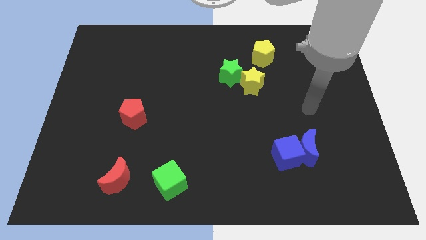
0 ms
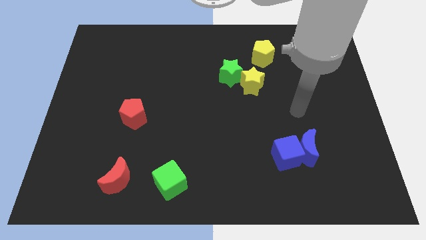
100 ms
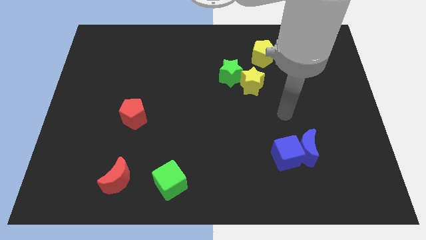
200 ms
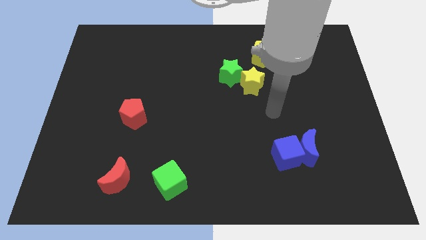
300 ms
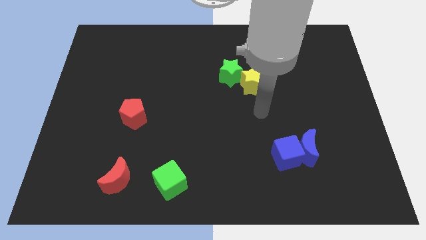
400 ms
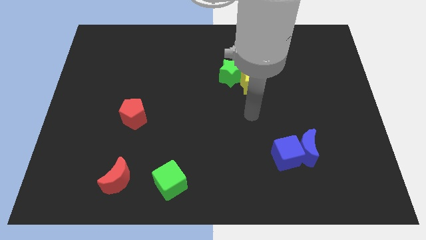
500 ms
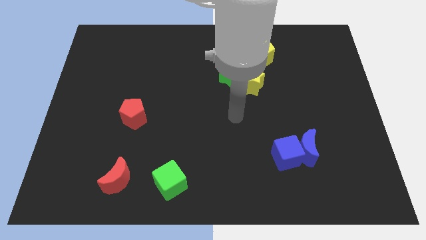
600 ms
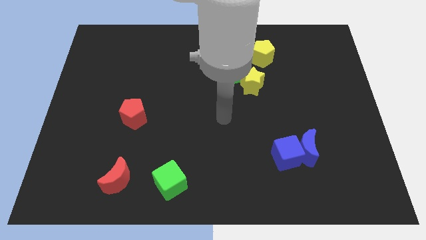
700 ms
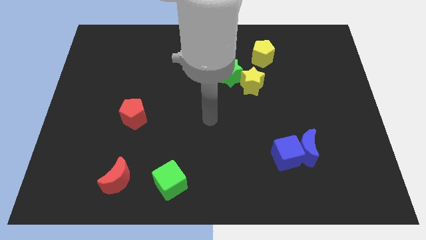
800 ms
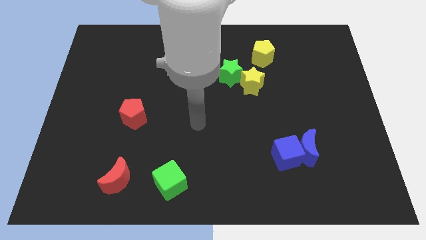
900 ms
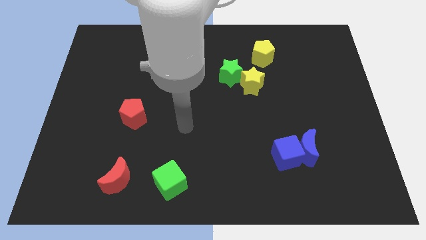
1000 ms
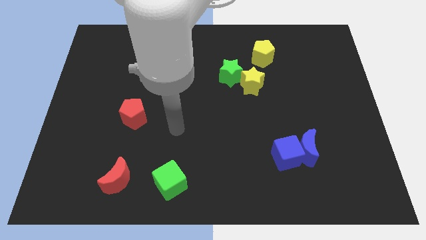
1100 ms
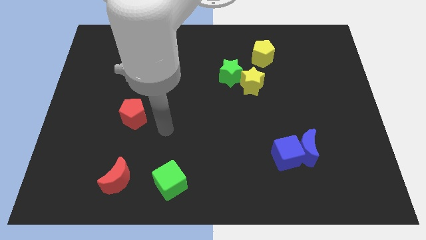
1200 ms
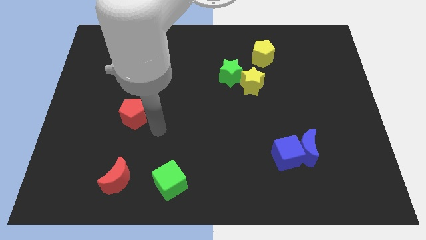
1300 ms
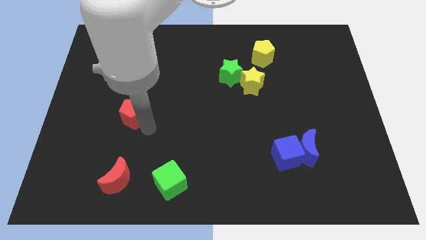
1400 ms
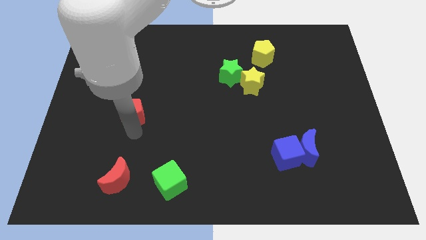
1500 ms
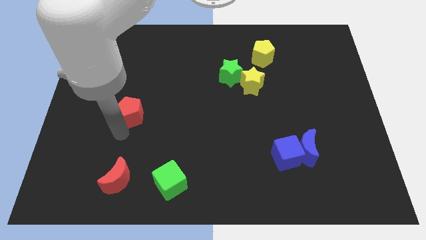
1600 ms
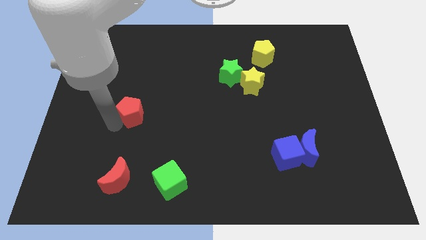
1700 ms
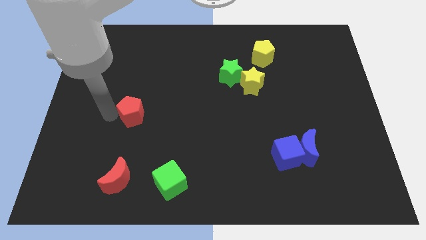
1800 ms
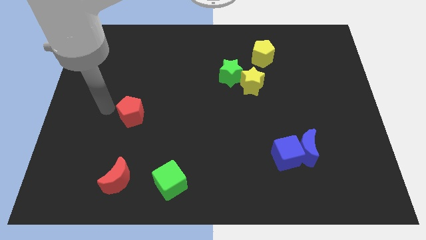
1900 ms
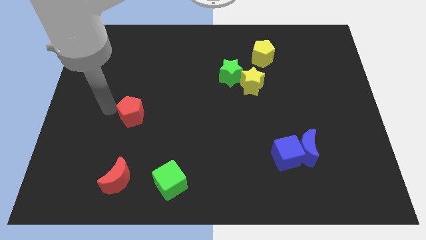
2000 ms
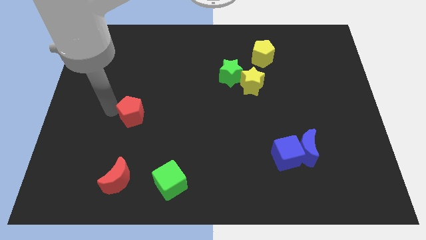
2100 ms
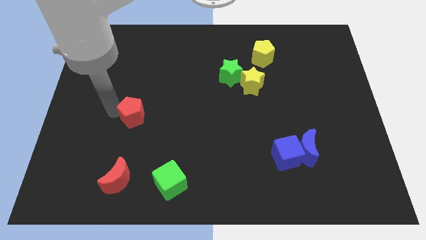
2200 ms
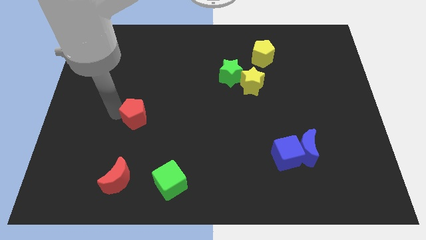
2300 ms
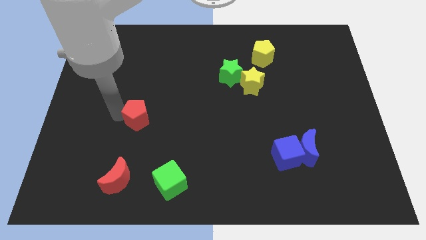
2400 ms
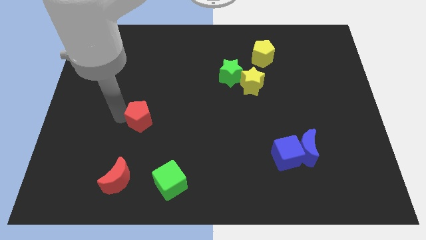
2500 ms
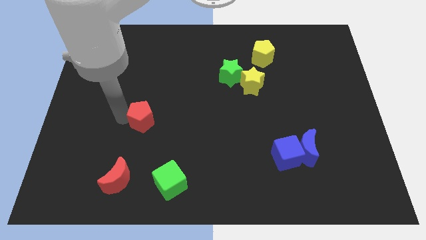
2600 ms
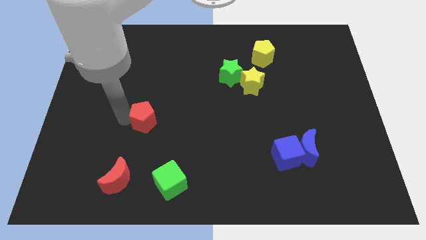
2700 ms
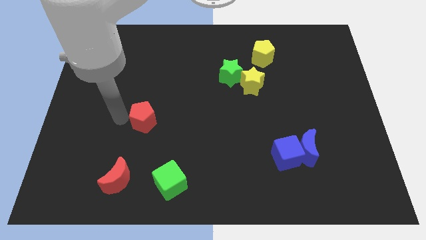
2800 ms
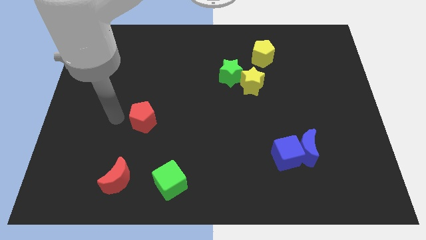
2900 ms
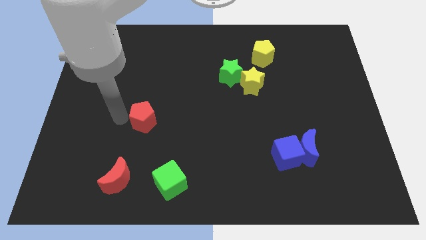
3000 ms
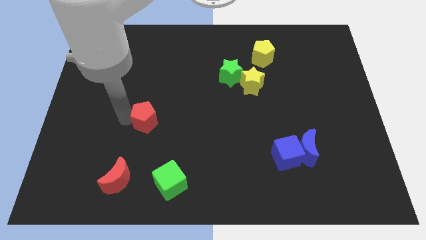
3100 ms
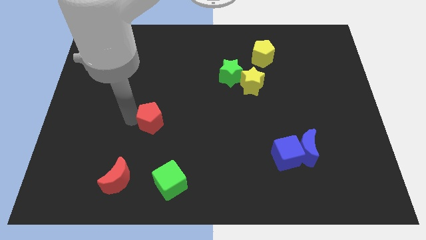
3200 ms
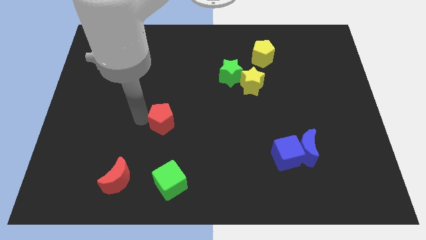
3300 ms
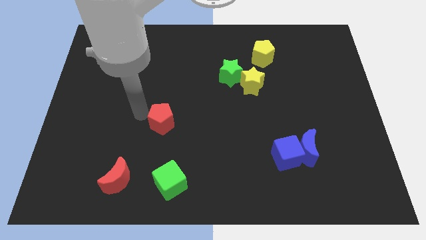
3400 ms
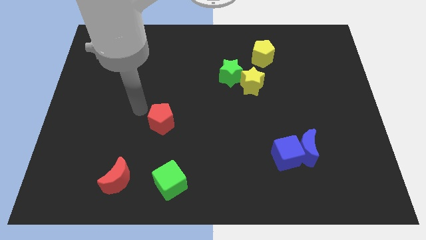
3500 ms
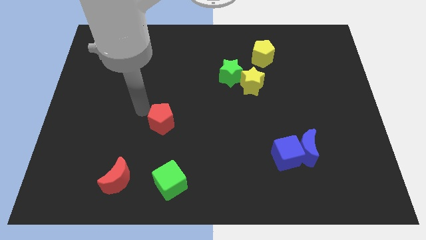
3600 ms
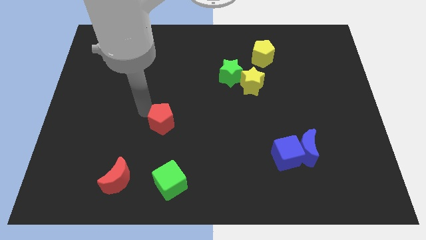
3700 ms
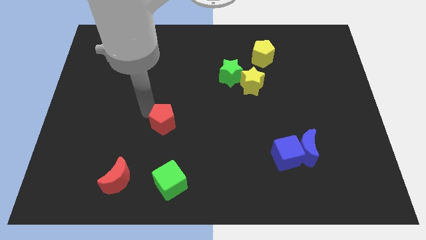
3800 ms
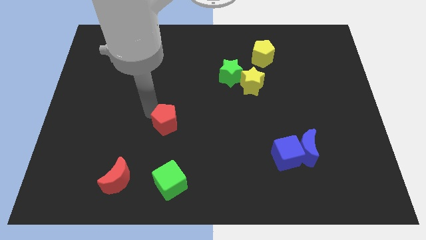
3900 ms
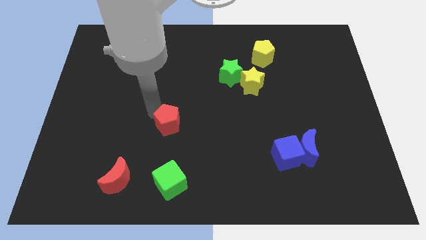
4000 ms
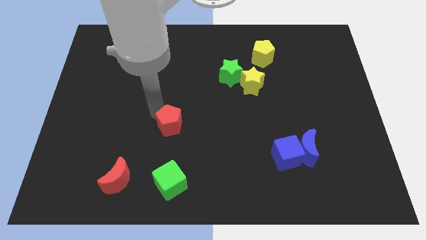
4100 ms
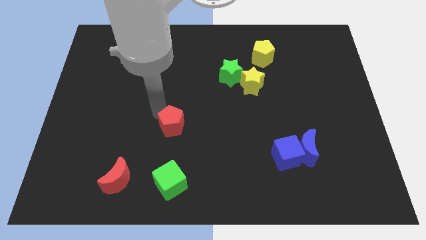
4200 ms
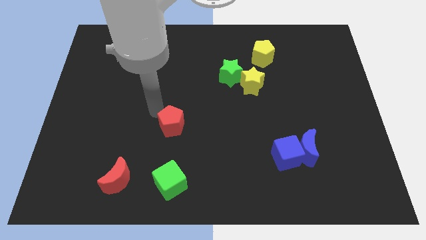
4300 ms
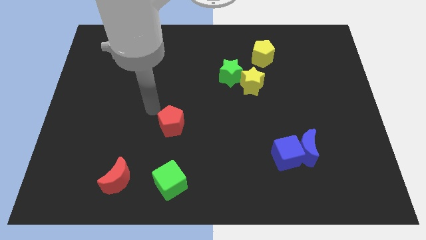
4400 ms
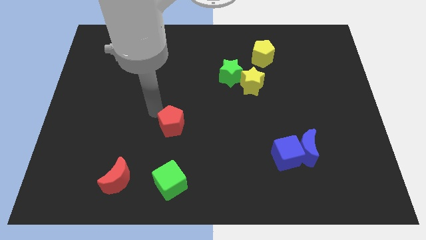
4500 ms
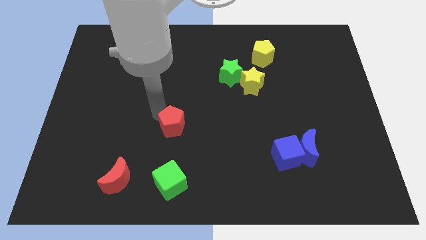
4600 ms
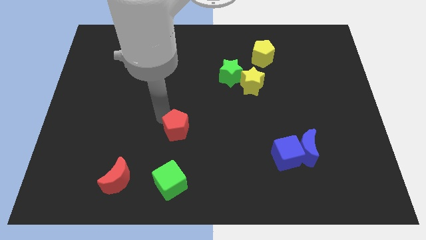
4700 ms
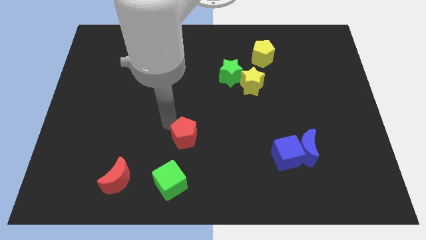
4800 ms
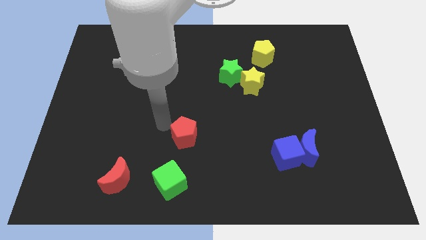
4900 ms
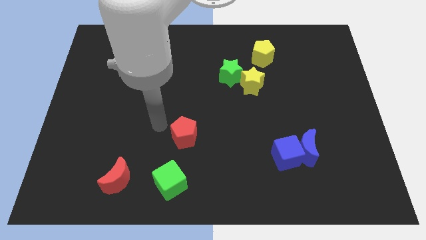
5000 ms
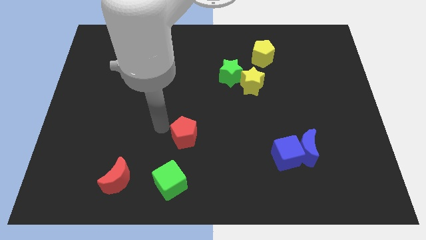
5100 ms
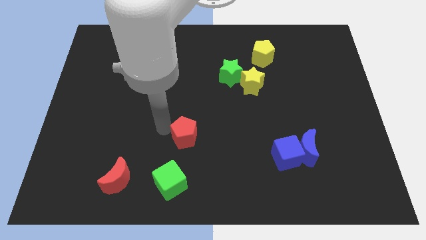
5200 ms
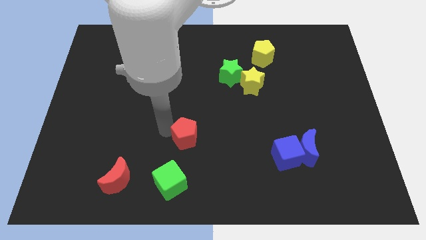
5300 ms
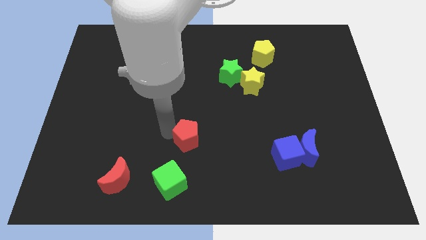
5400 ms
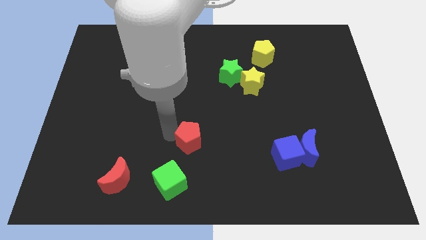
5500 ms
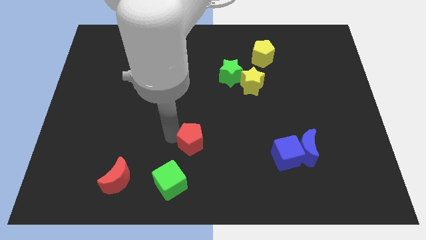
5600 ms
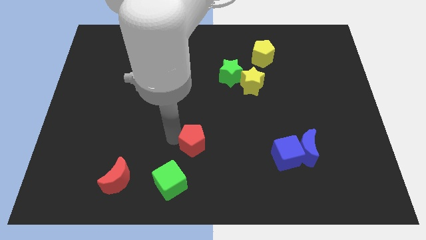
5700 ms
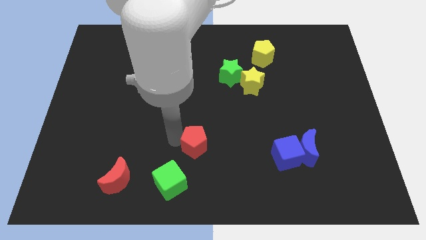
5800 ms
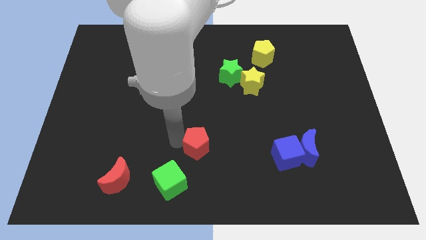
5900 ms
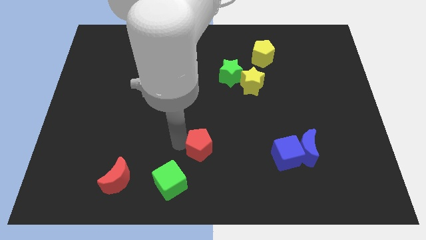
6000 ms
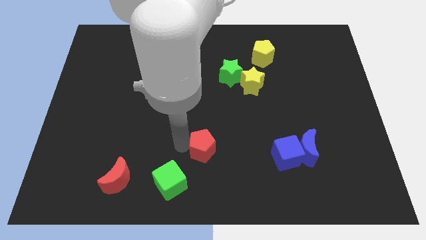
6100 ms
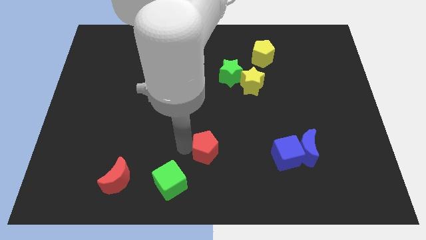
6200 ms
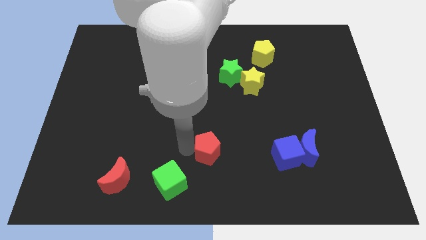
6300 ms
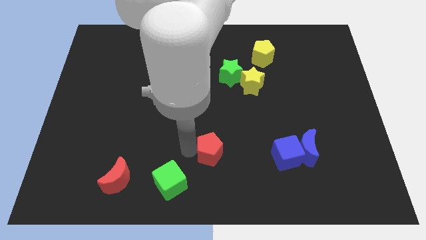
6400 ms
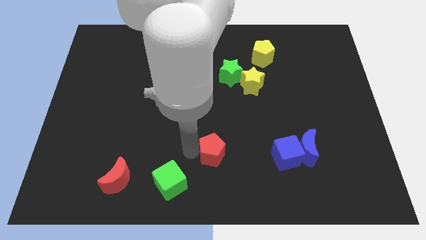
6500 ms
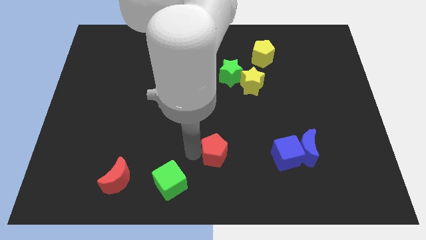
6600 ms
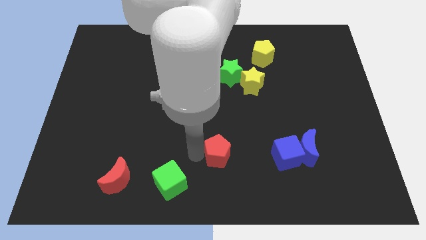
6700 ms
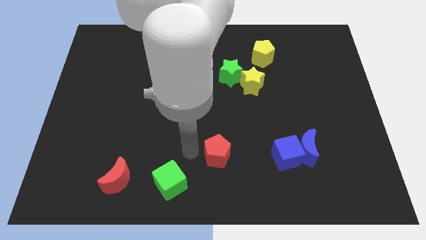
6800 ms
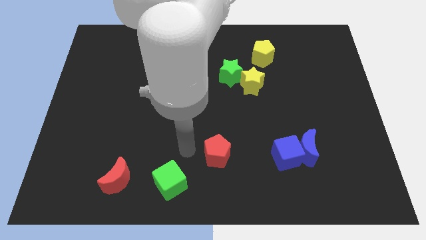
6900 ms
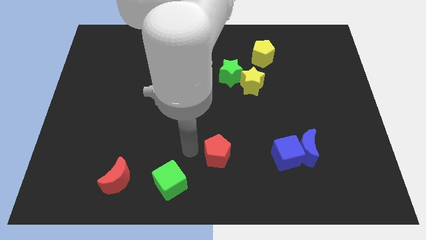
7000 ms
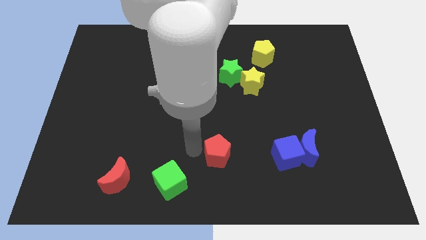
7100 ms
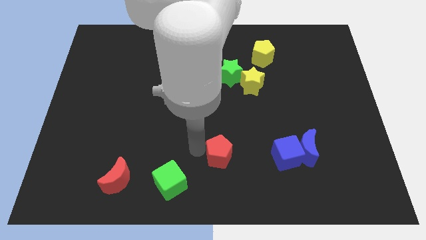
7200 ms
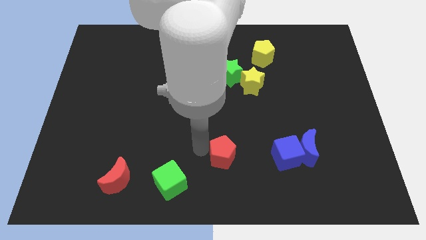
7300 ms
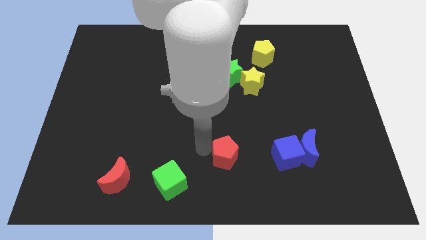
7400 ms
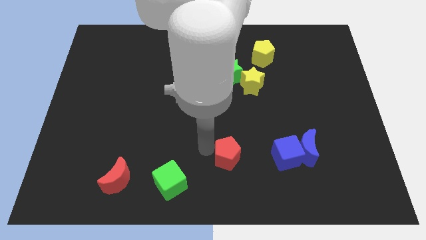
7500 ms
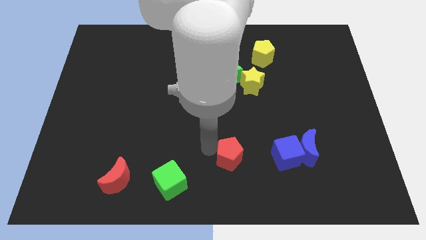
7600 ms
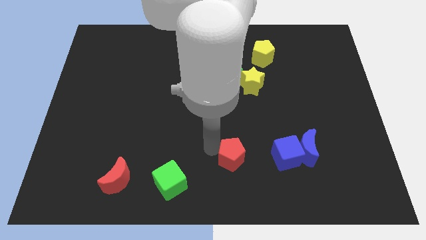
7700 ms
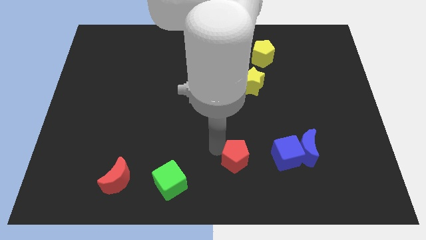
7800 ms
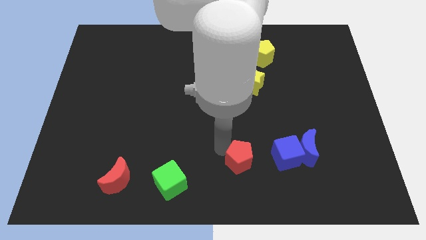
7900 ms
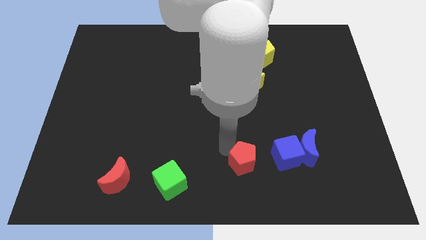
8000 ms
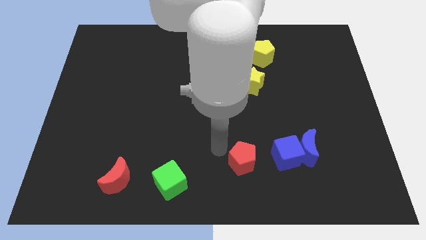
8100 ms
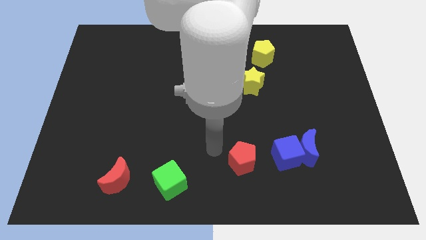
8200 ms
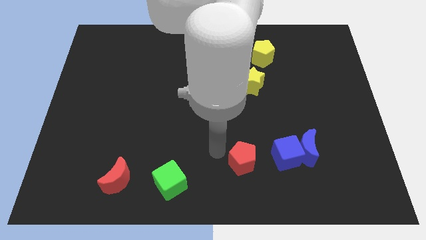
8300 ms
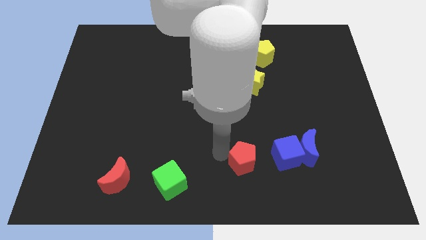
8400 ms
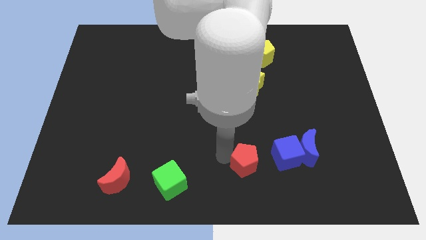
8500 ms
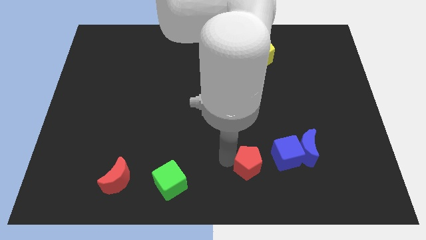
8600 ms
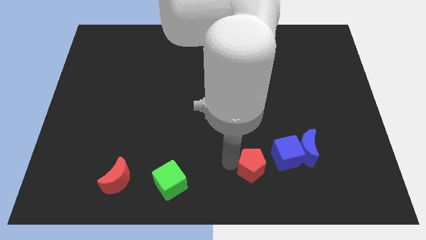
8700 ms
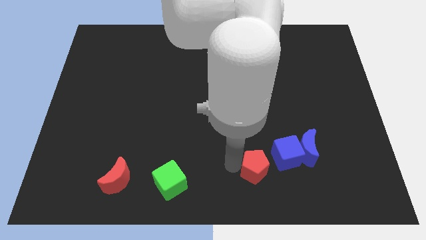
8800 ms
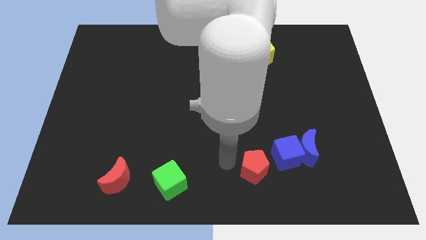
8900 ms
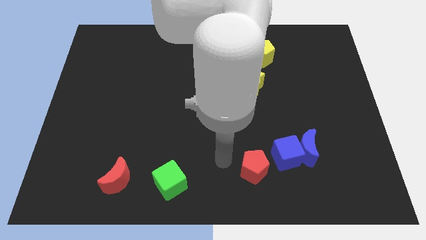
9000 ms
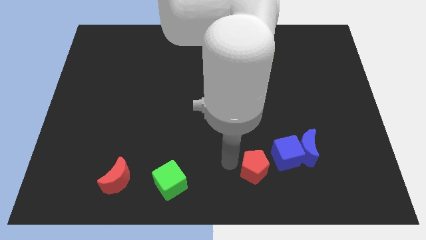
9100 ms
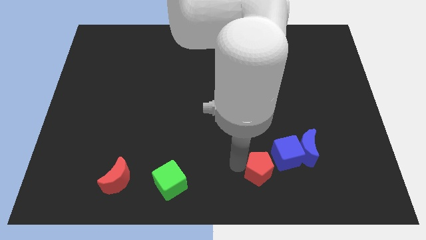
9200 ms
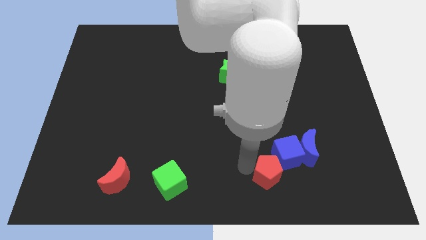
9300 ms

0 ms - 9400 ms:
move the red pentagon to the blue cube
